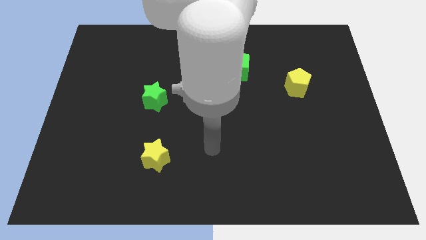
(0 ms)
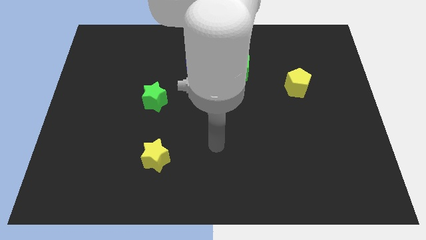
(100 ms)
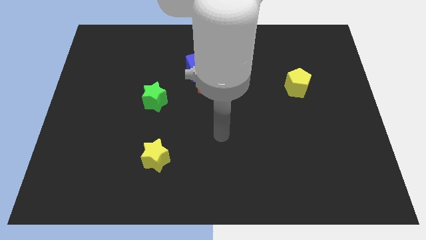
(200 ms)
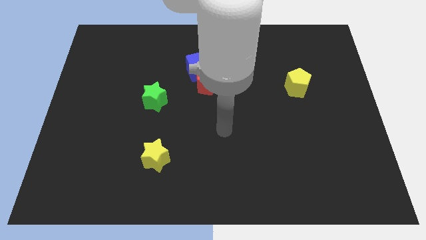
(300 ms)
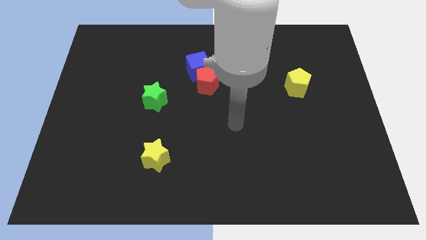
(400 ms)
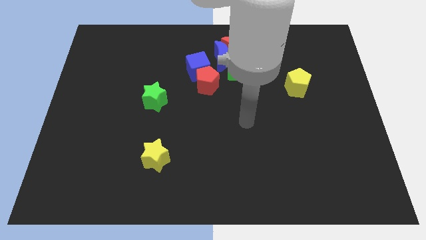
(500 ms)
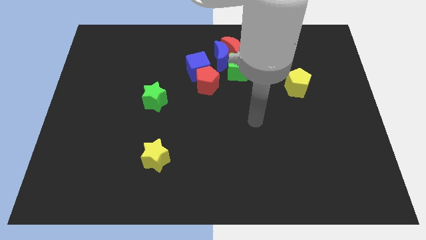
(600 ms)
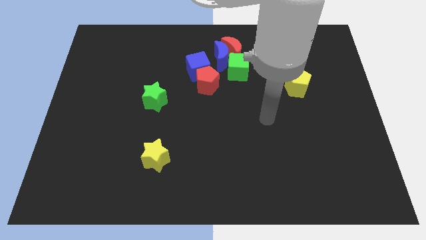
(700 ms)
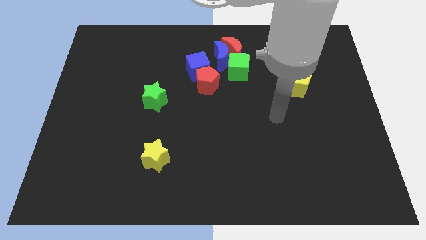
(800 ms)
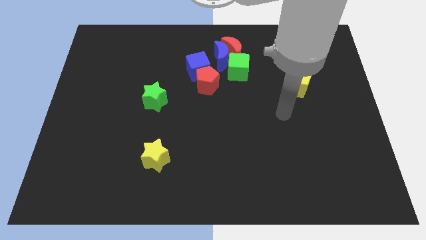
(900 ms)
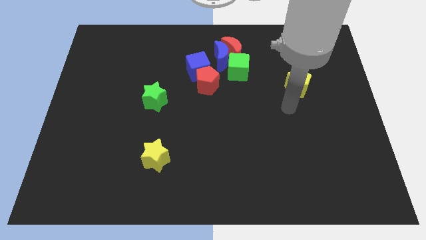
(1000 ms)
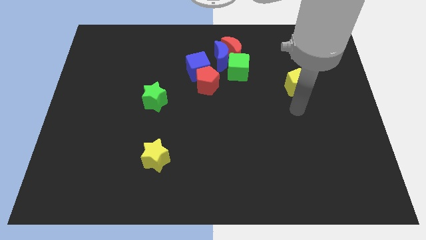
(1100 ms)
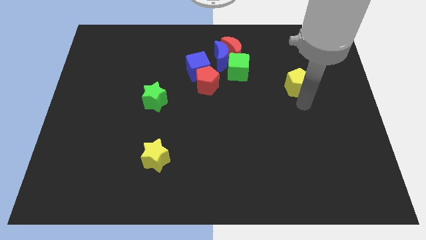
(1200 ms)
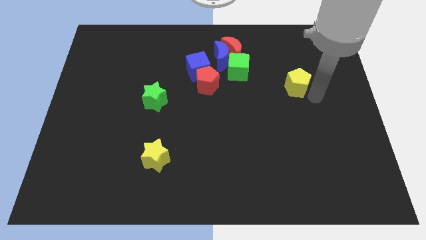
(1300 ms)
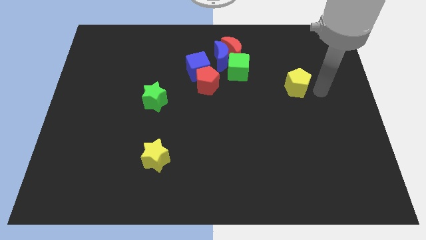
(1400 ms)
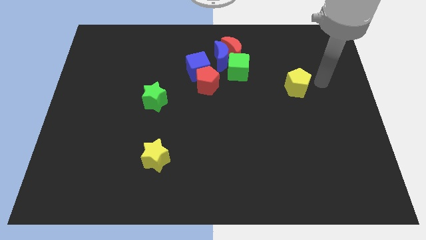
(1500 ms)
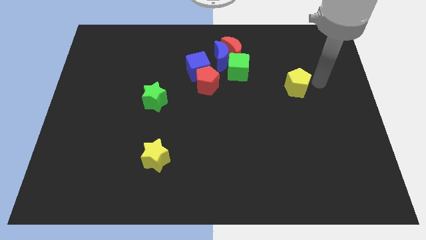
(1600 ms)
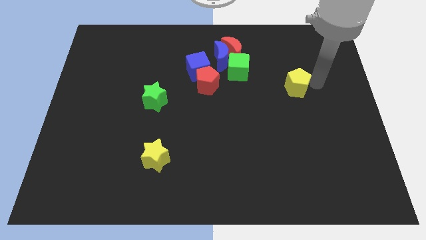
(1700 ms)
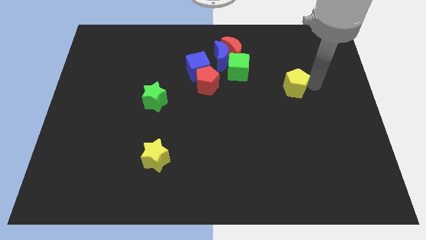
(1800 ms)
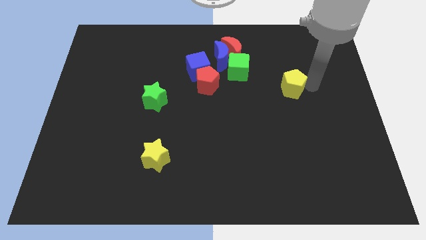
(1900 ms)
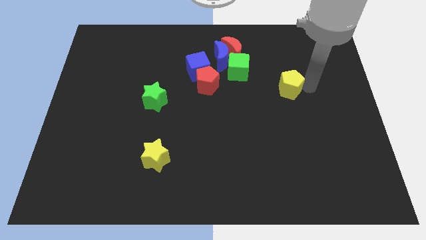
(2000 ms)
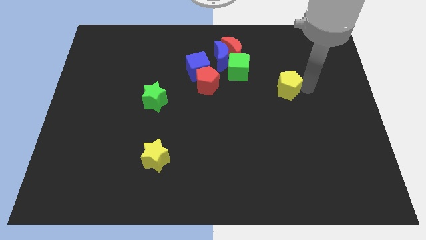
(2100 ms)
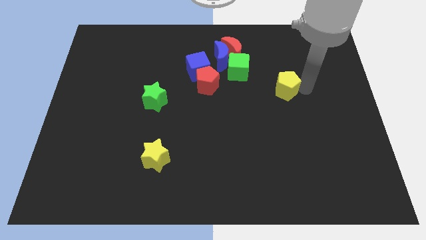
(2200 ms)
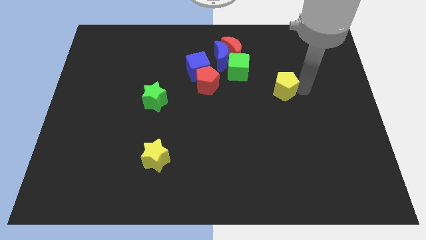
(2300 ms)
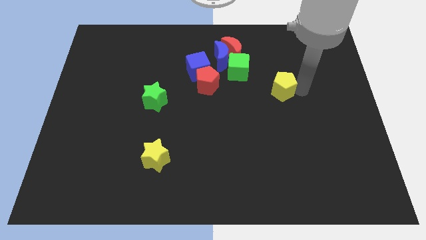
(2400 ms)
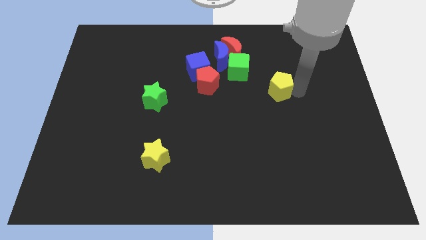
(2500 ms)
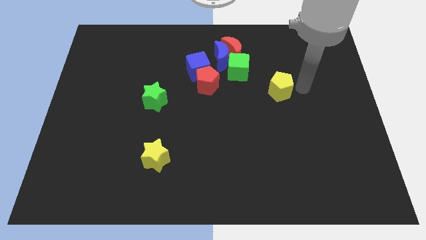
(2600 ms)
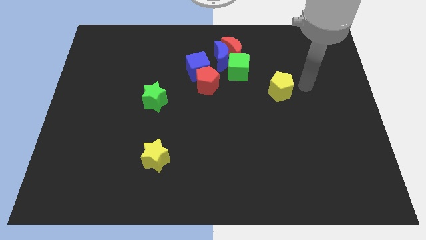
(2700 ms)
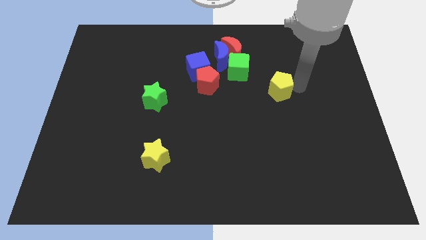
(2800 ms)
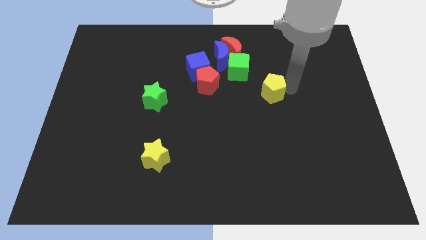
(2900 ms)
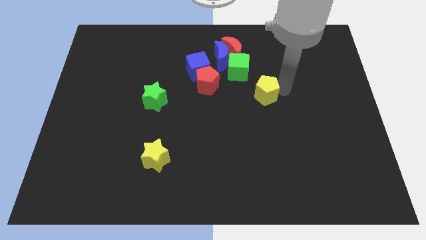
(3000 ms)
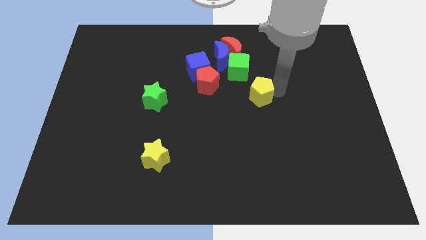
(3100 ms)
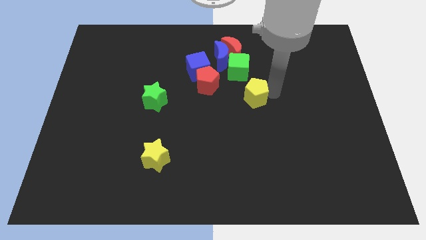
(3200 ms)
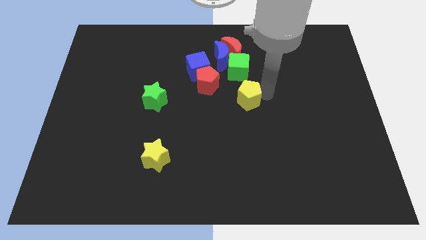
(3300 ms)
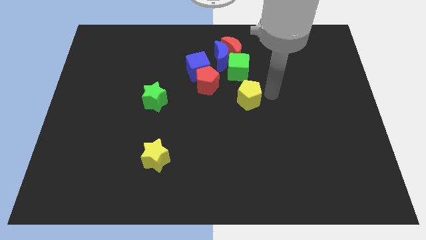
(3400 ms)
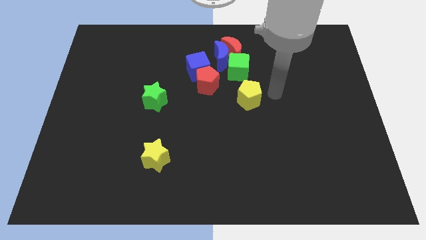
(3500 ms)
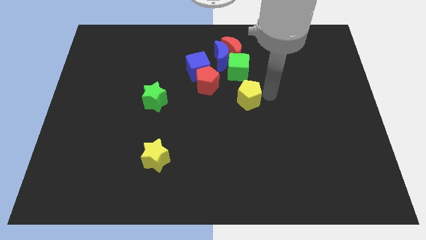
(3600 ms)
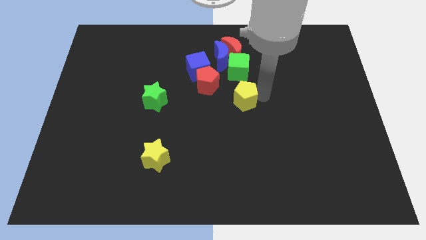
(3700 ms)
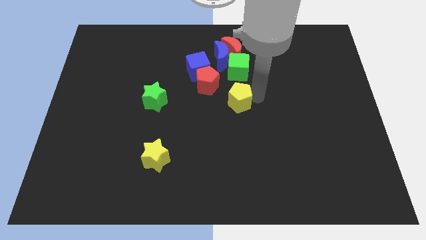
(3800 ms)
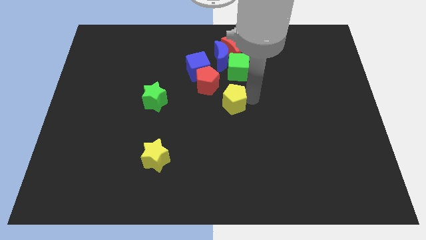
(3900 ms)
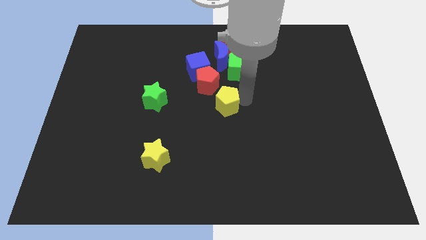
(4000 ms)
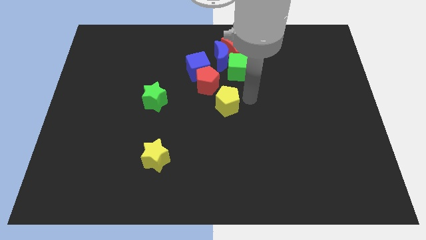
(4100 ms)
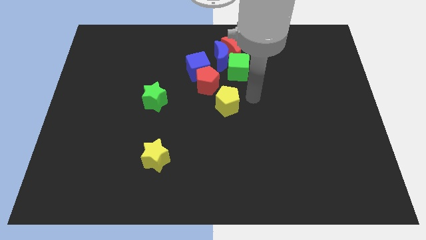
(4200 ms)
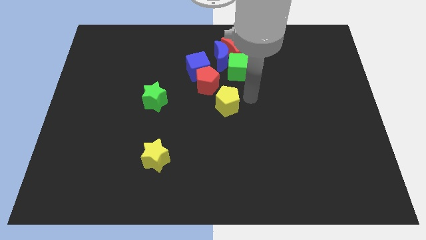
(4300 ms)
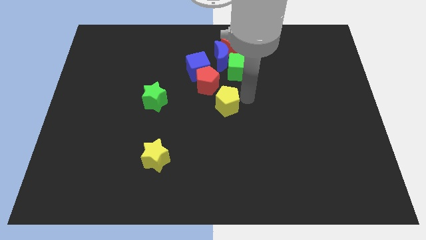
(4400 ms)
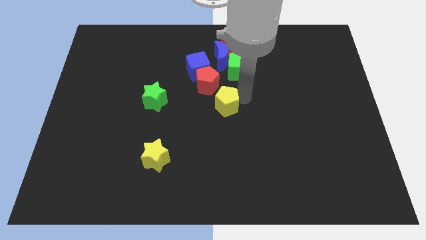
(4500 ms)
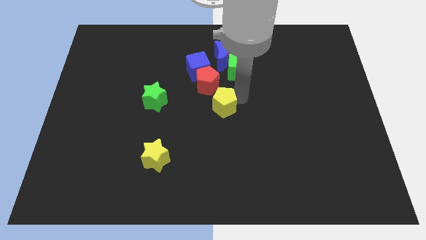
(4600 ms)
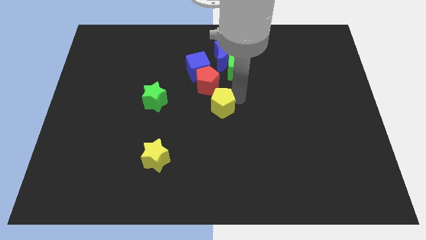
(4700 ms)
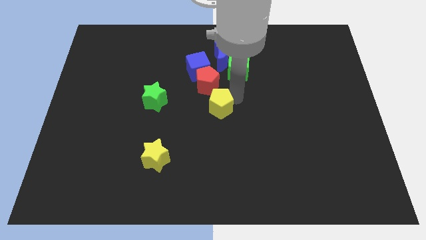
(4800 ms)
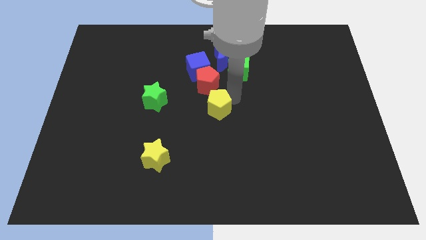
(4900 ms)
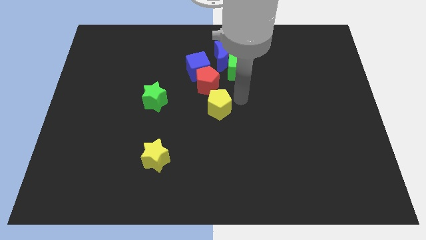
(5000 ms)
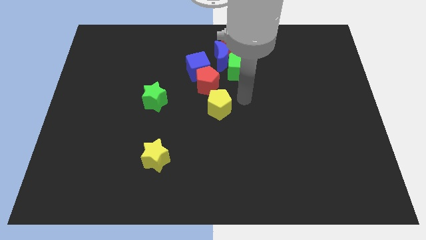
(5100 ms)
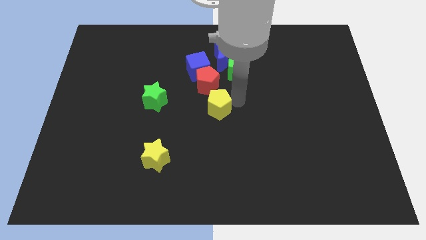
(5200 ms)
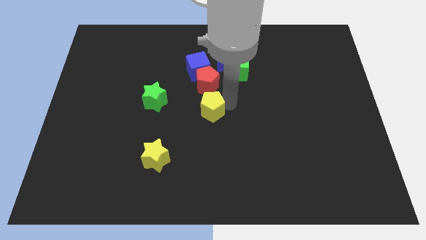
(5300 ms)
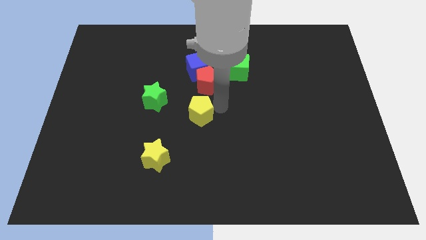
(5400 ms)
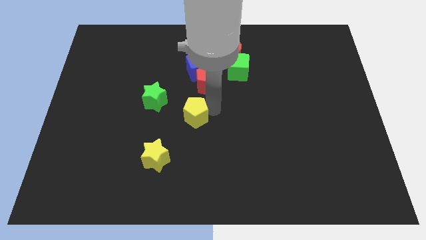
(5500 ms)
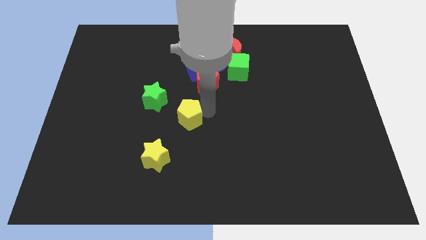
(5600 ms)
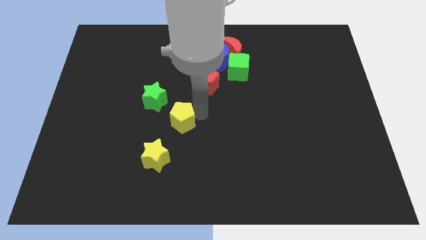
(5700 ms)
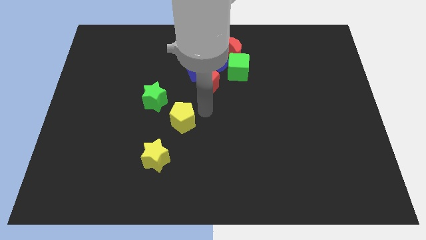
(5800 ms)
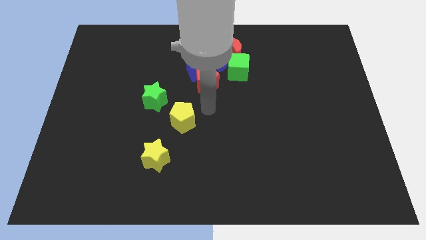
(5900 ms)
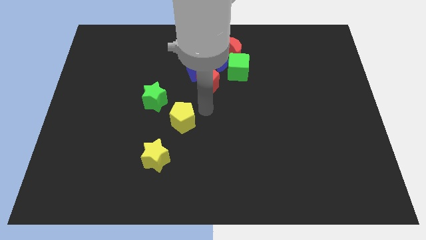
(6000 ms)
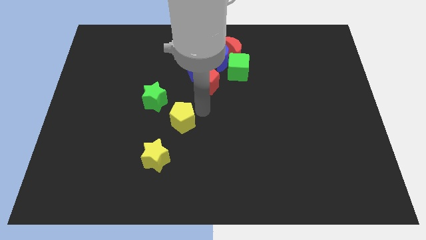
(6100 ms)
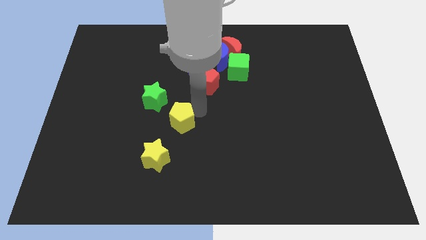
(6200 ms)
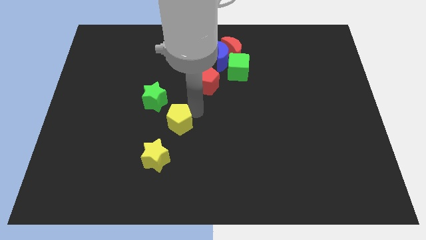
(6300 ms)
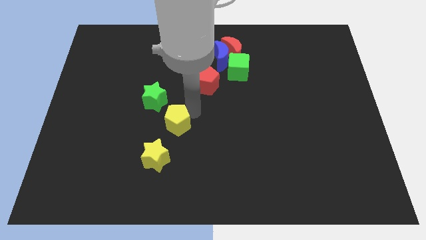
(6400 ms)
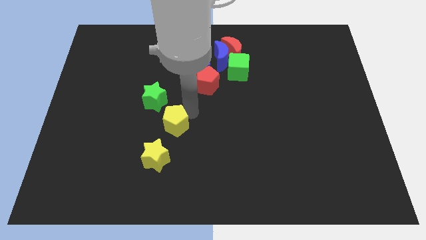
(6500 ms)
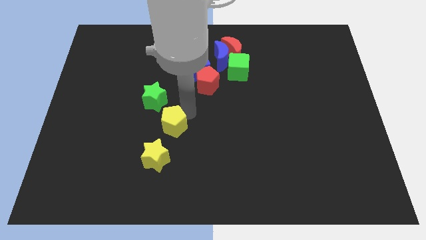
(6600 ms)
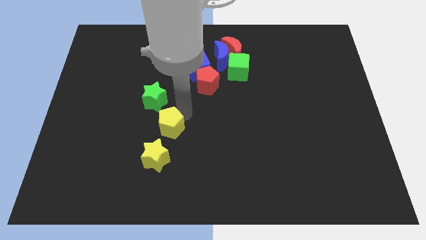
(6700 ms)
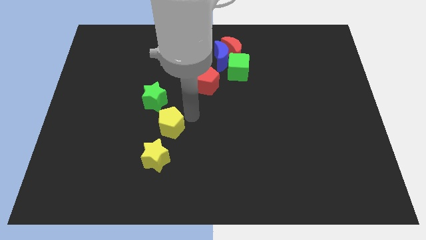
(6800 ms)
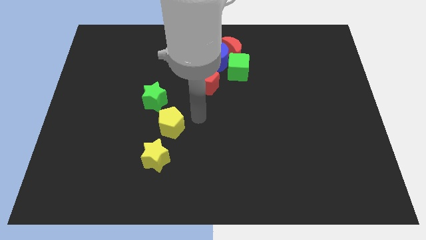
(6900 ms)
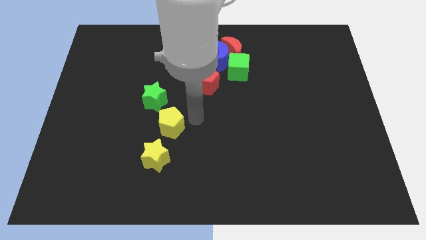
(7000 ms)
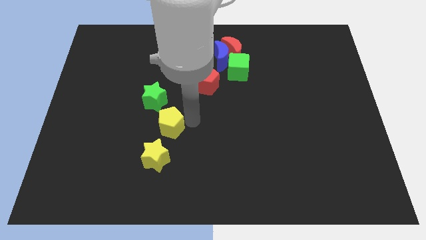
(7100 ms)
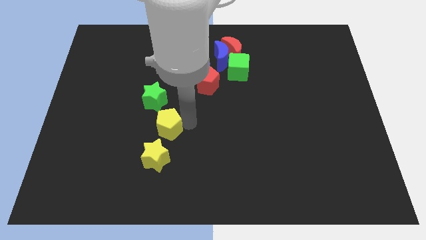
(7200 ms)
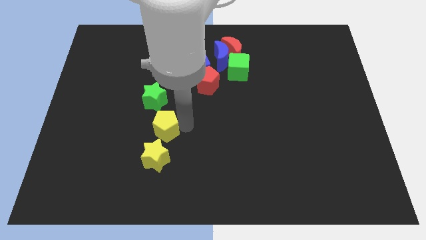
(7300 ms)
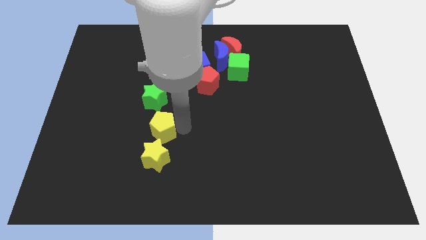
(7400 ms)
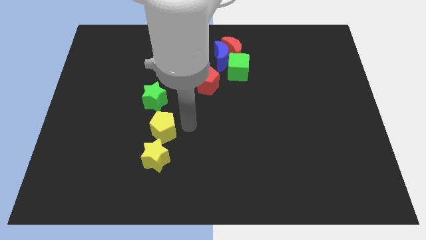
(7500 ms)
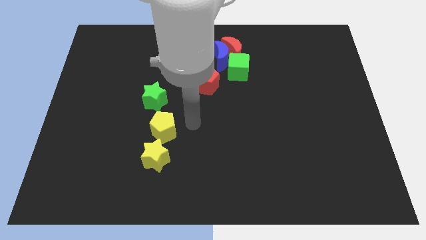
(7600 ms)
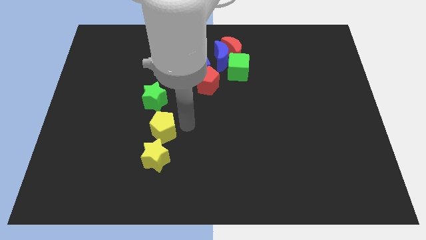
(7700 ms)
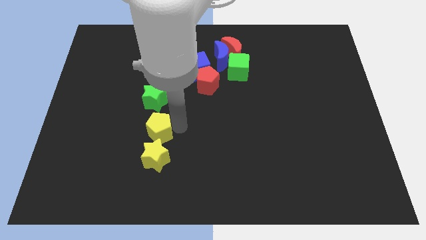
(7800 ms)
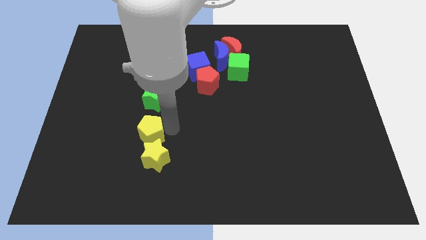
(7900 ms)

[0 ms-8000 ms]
move the yellow pentagon diagonally up and to the left of the yellow star
